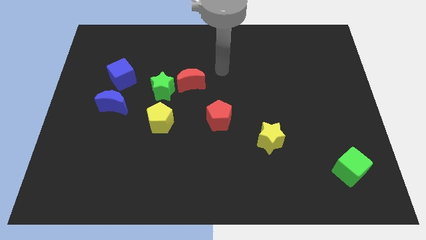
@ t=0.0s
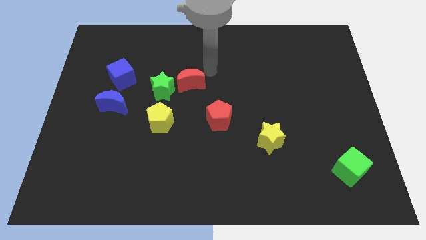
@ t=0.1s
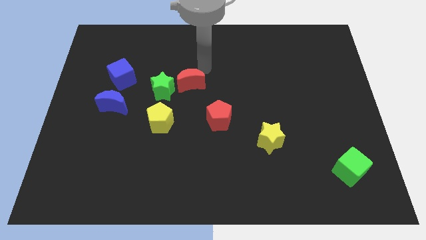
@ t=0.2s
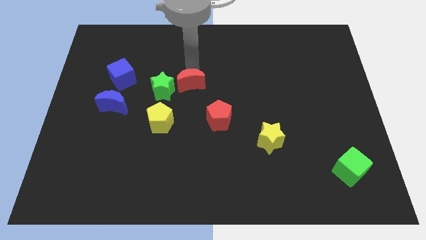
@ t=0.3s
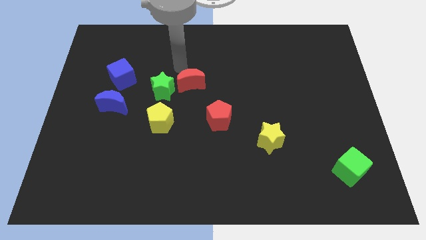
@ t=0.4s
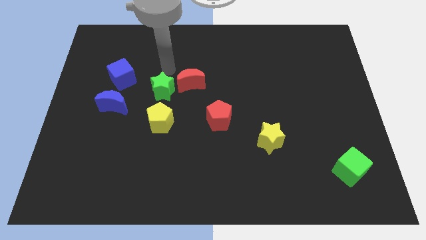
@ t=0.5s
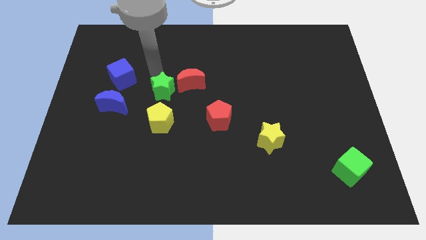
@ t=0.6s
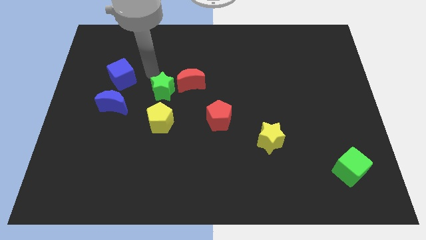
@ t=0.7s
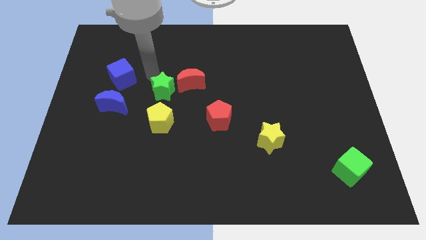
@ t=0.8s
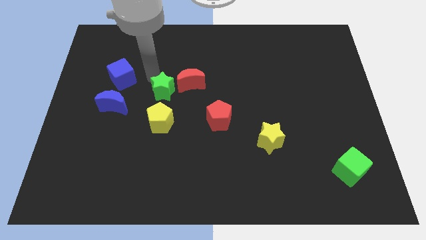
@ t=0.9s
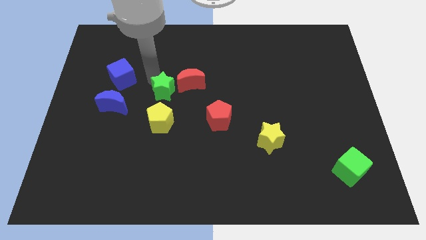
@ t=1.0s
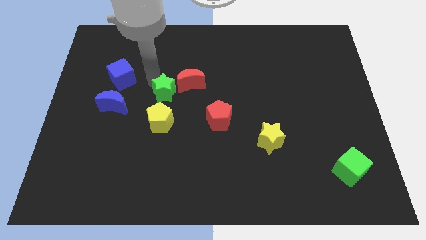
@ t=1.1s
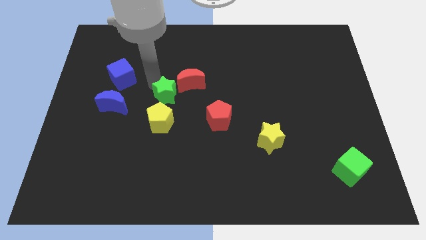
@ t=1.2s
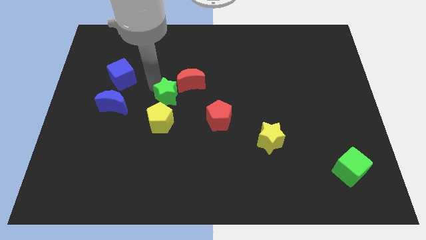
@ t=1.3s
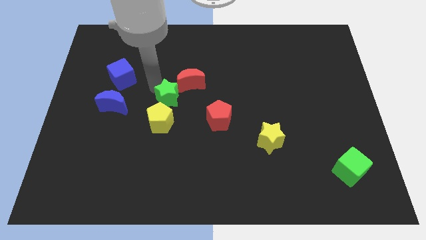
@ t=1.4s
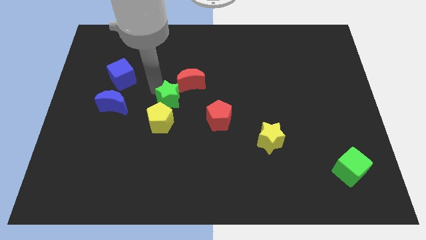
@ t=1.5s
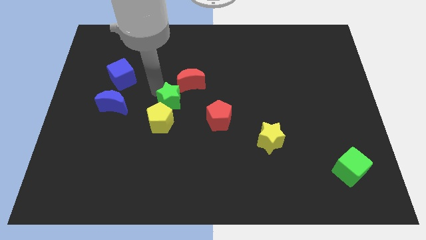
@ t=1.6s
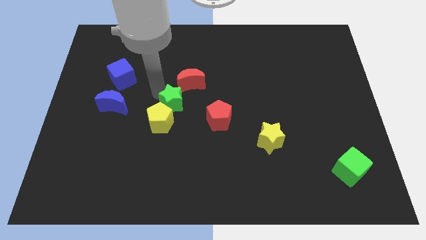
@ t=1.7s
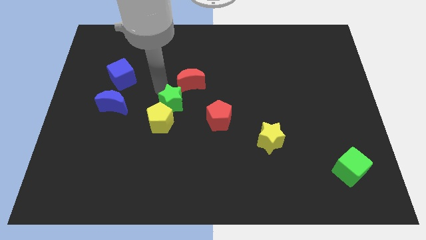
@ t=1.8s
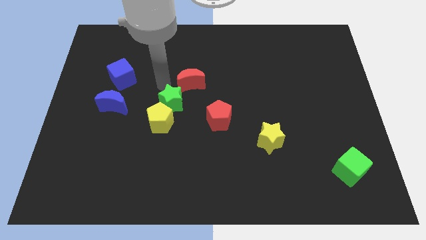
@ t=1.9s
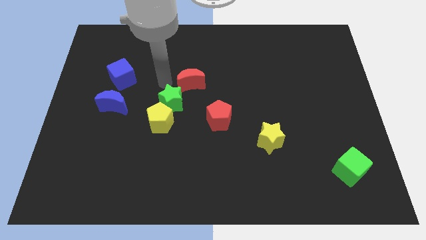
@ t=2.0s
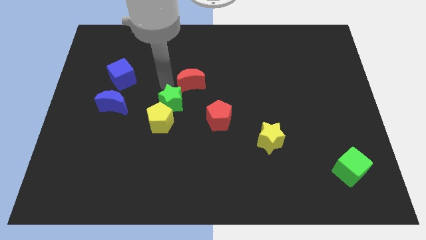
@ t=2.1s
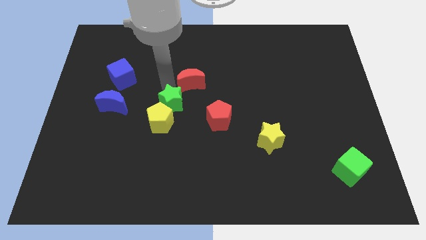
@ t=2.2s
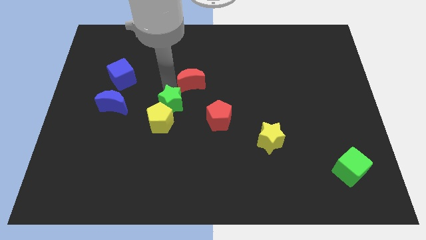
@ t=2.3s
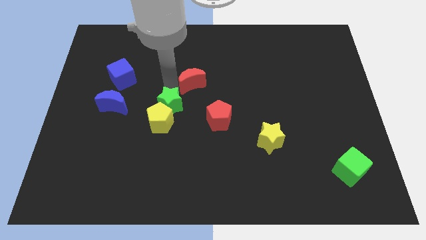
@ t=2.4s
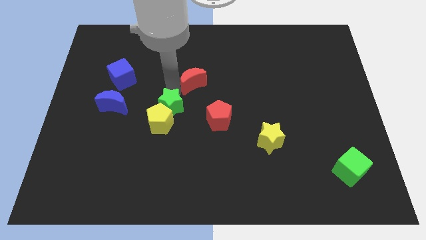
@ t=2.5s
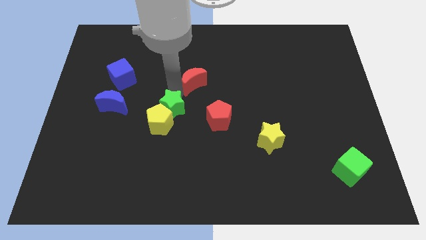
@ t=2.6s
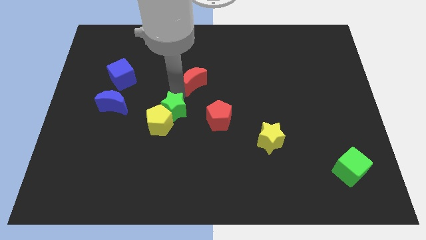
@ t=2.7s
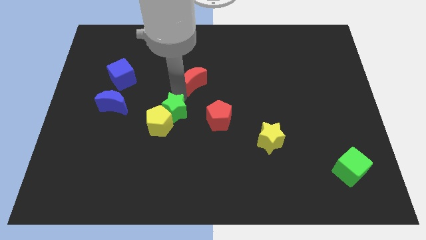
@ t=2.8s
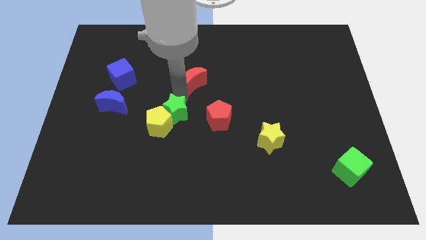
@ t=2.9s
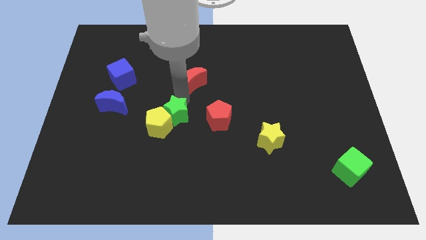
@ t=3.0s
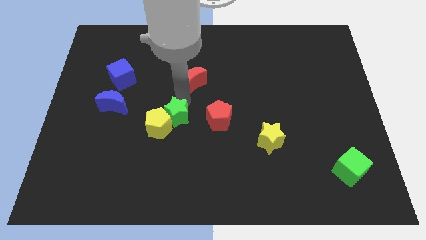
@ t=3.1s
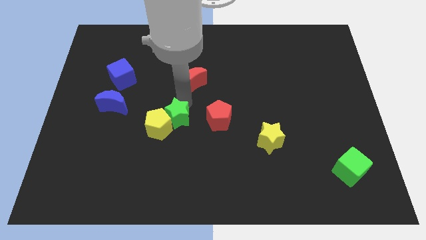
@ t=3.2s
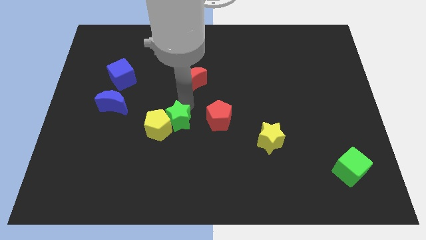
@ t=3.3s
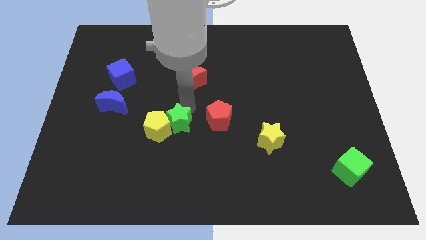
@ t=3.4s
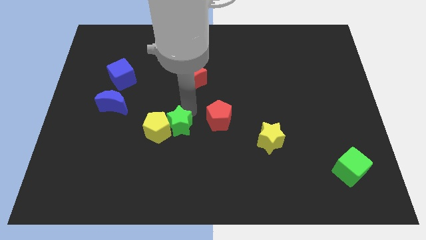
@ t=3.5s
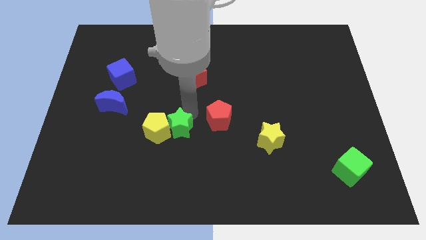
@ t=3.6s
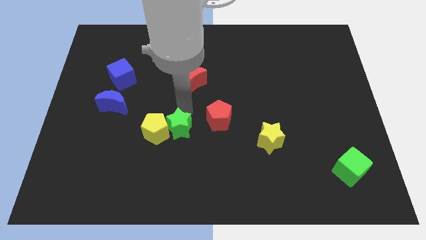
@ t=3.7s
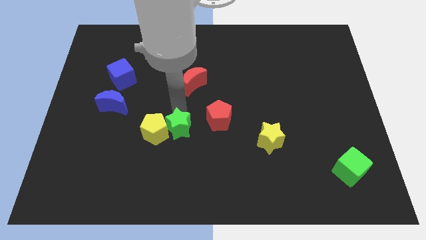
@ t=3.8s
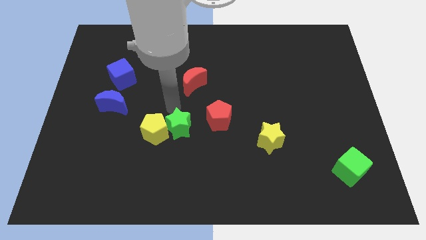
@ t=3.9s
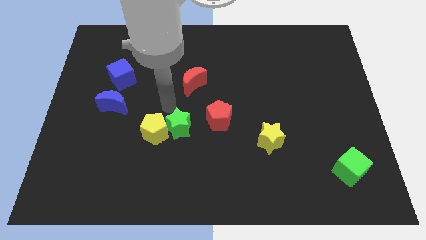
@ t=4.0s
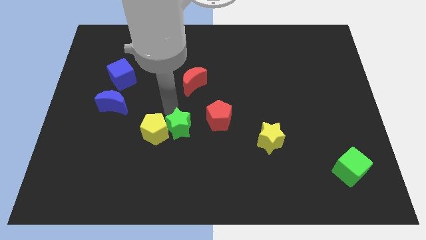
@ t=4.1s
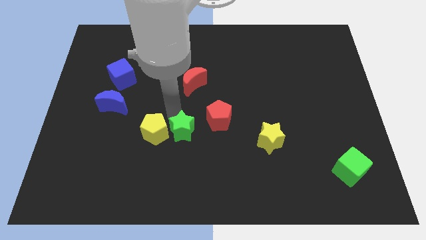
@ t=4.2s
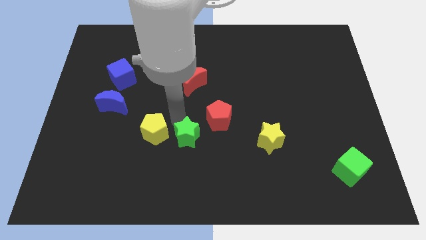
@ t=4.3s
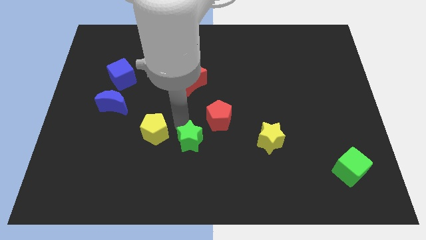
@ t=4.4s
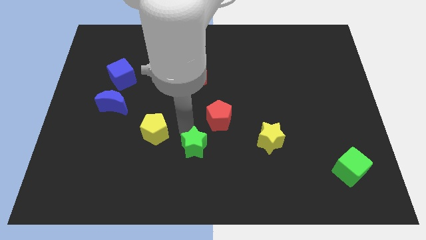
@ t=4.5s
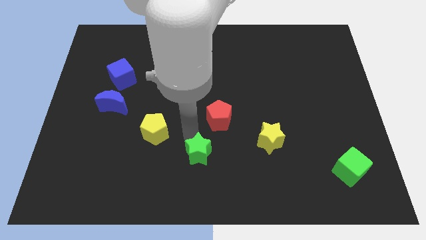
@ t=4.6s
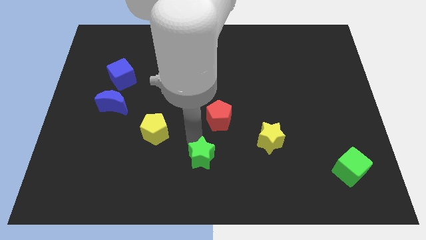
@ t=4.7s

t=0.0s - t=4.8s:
put the green star to the bottom

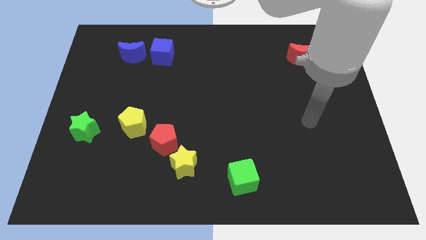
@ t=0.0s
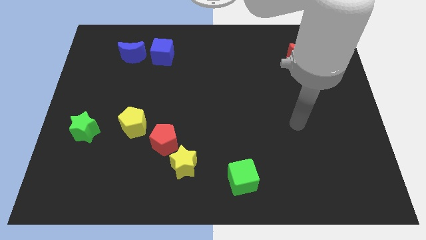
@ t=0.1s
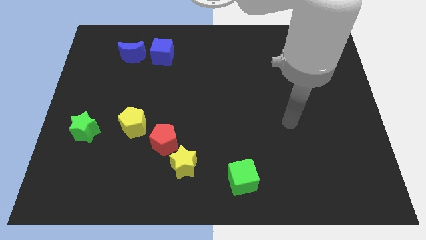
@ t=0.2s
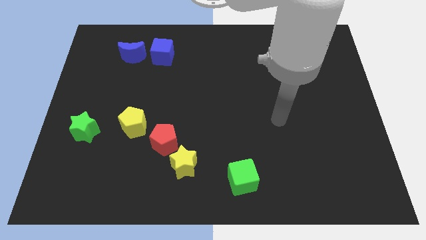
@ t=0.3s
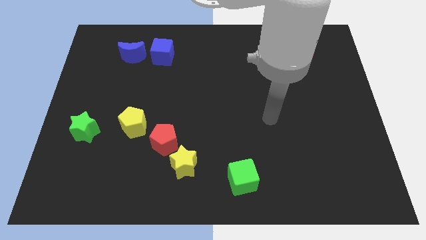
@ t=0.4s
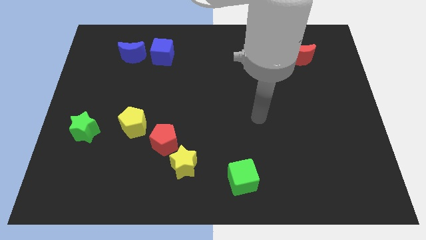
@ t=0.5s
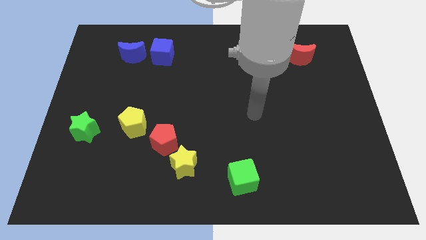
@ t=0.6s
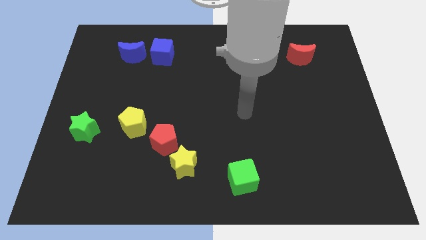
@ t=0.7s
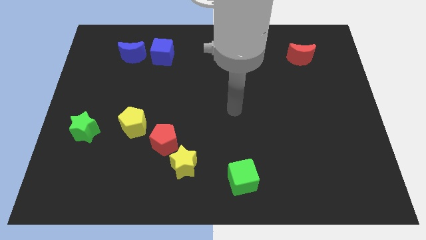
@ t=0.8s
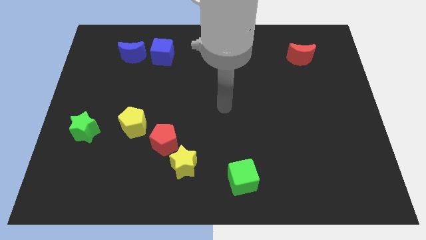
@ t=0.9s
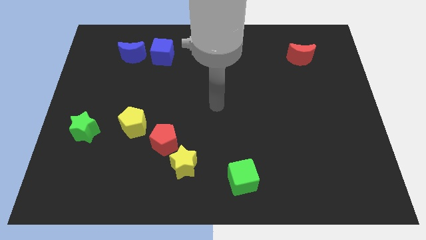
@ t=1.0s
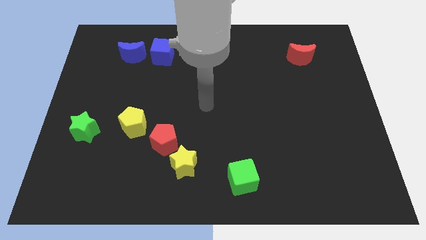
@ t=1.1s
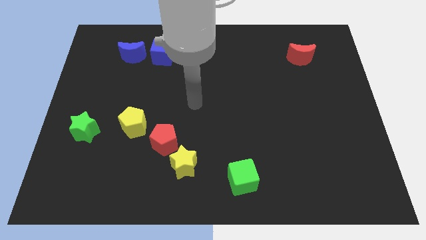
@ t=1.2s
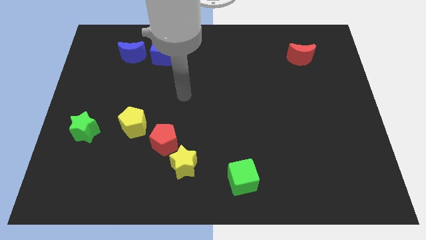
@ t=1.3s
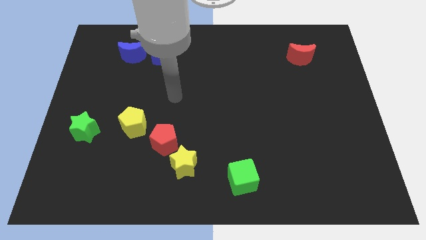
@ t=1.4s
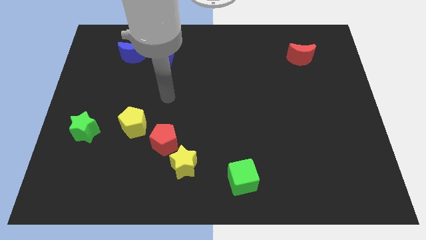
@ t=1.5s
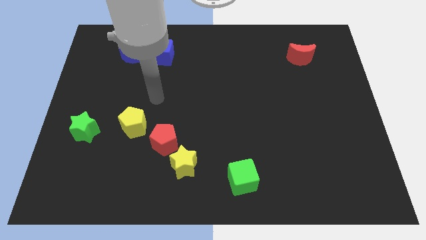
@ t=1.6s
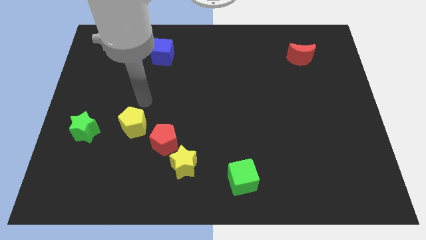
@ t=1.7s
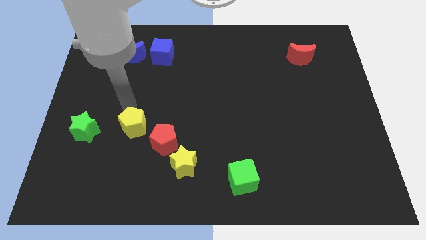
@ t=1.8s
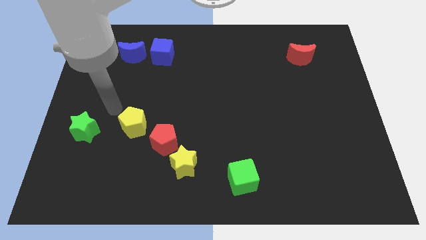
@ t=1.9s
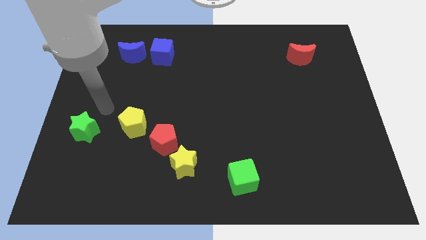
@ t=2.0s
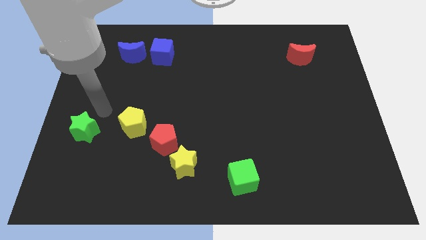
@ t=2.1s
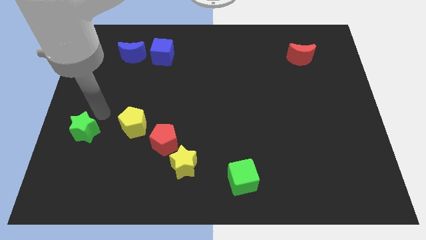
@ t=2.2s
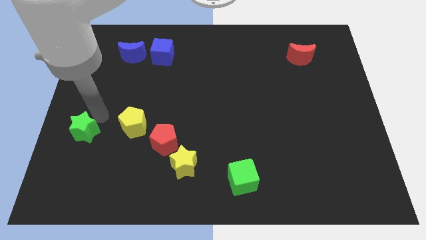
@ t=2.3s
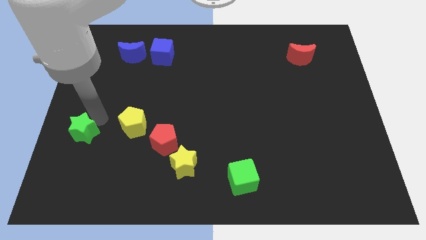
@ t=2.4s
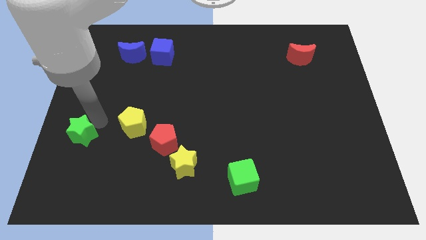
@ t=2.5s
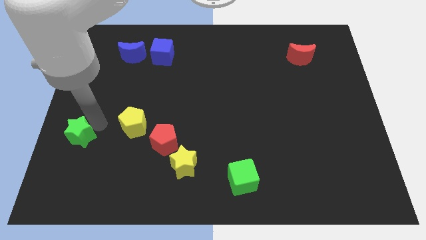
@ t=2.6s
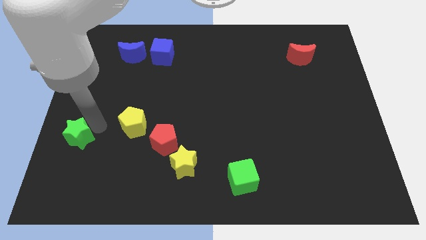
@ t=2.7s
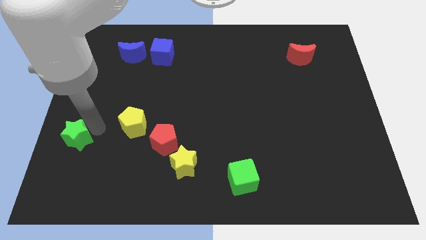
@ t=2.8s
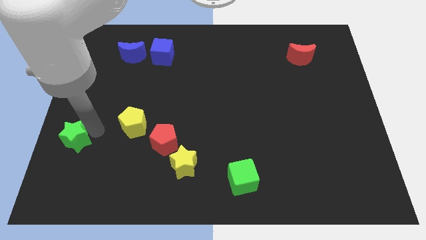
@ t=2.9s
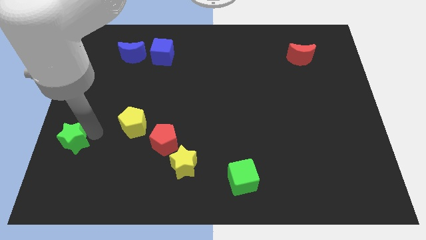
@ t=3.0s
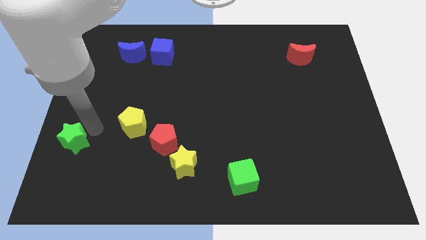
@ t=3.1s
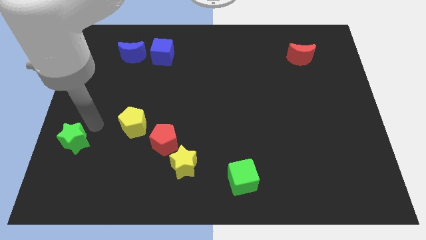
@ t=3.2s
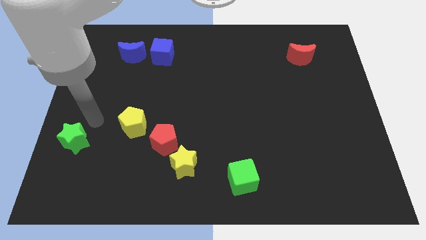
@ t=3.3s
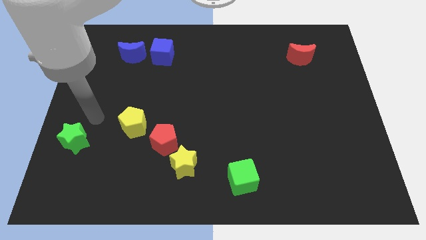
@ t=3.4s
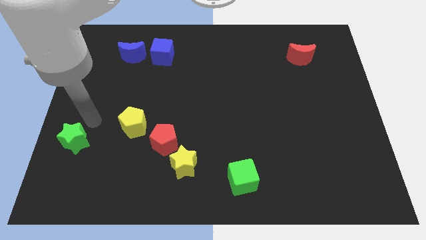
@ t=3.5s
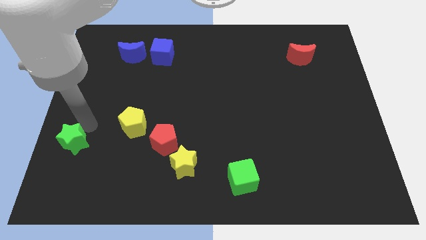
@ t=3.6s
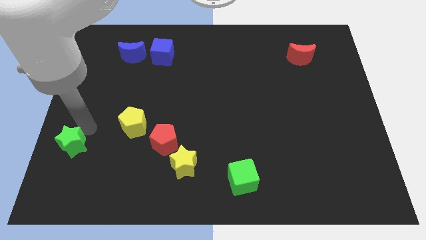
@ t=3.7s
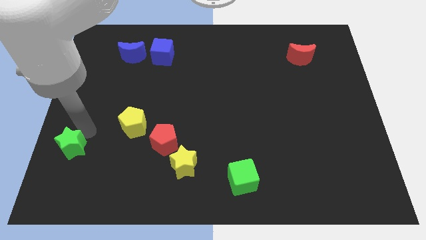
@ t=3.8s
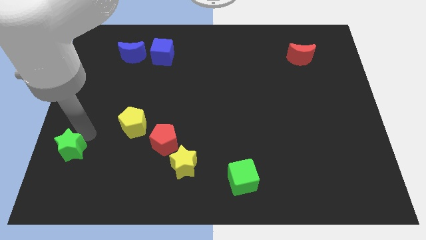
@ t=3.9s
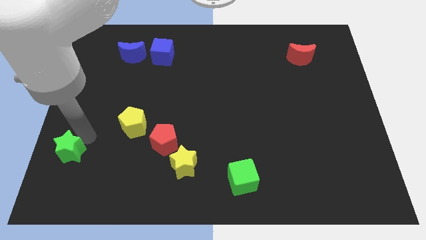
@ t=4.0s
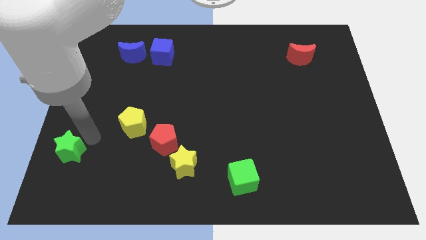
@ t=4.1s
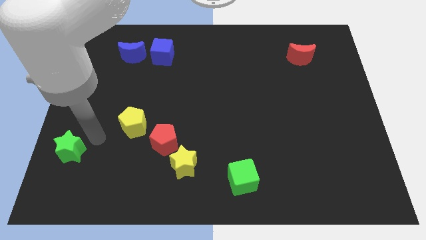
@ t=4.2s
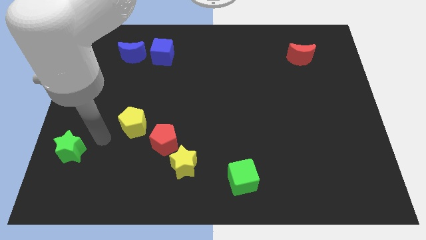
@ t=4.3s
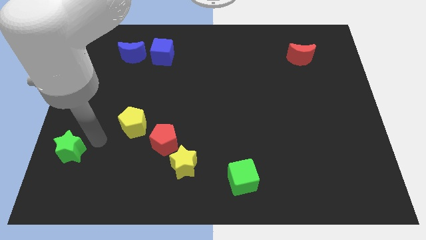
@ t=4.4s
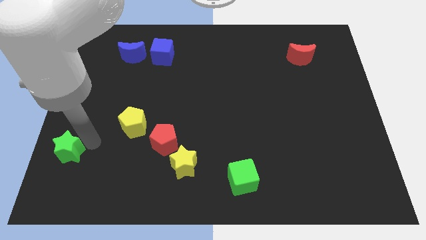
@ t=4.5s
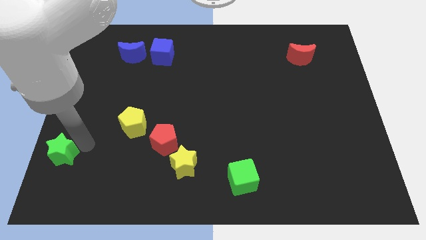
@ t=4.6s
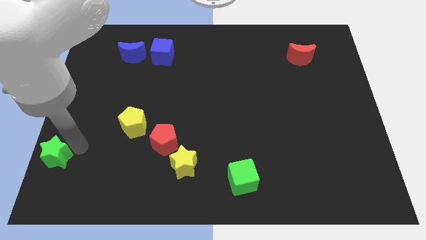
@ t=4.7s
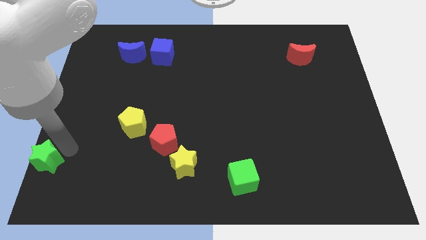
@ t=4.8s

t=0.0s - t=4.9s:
put the green star to the lower left corner
